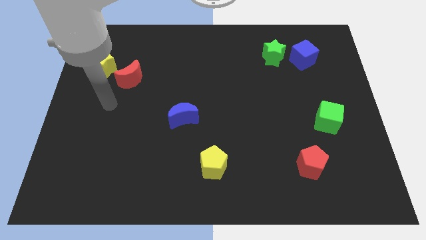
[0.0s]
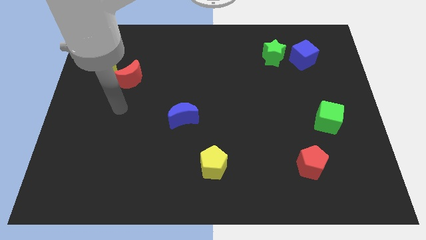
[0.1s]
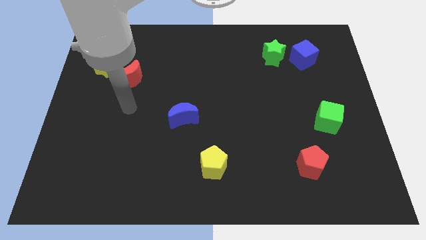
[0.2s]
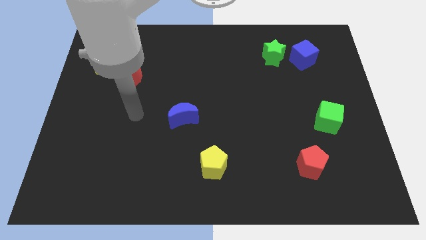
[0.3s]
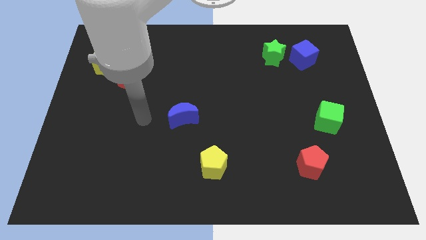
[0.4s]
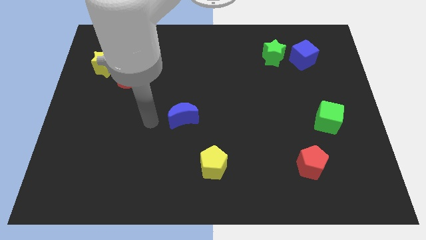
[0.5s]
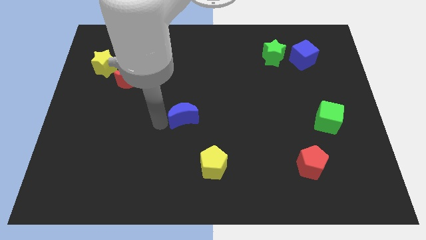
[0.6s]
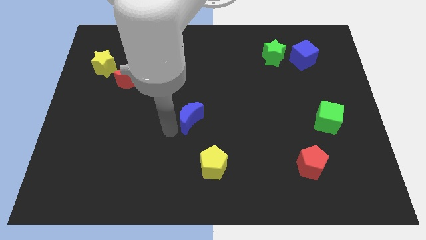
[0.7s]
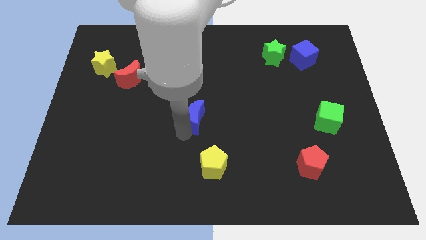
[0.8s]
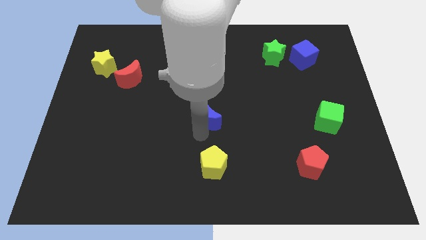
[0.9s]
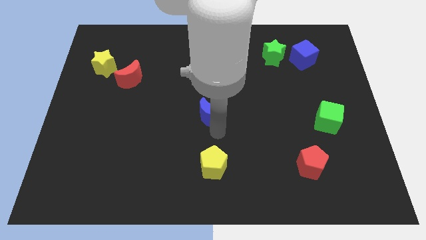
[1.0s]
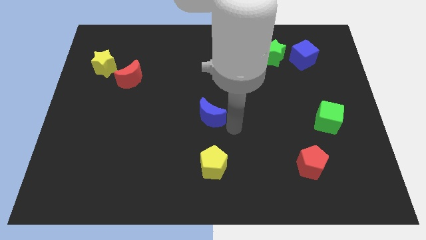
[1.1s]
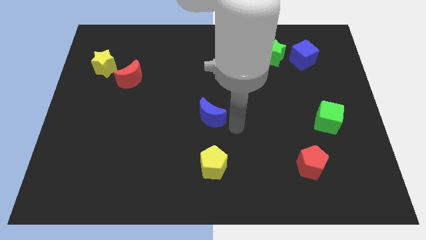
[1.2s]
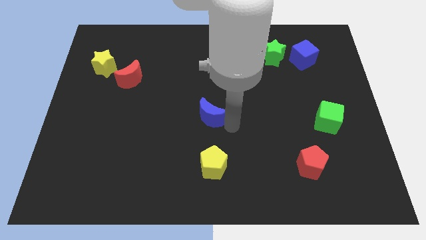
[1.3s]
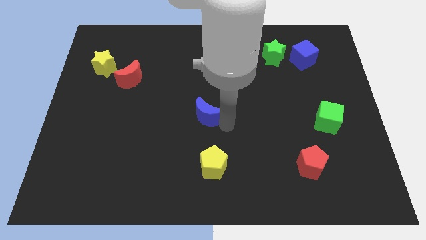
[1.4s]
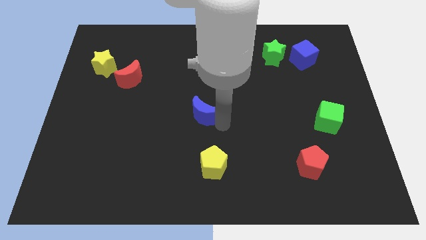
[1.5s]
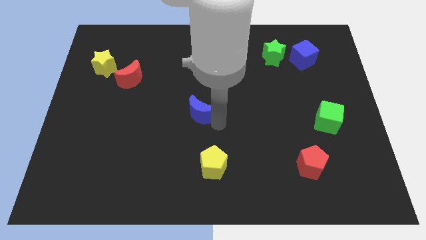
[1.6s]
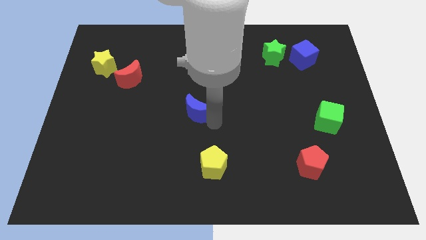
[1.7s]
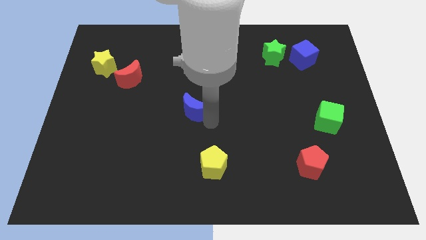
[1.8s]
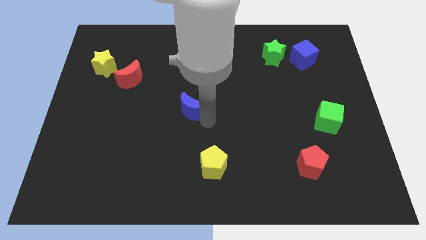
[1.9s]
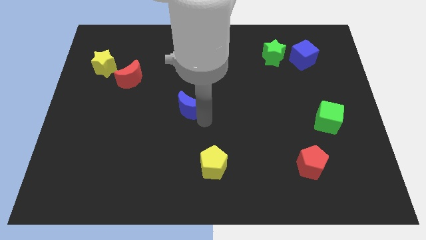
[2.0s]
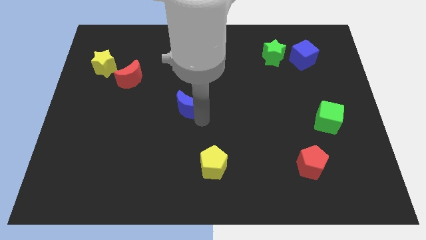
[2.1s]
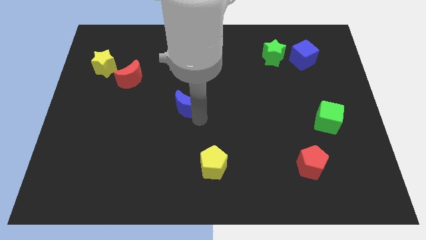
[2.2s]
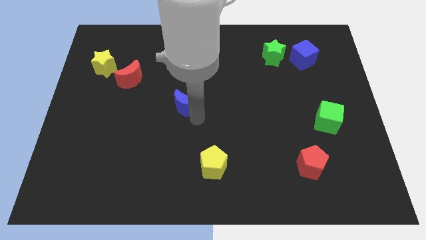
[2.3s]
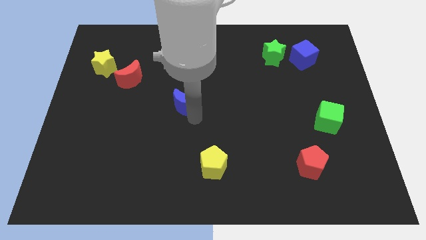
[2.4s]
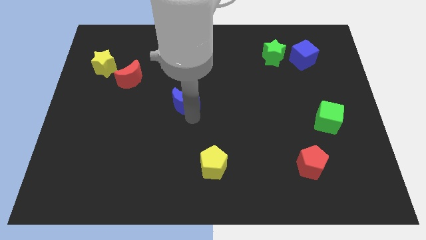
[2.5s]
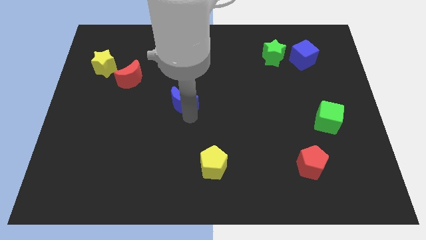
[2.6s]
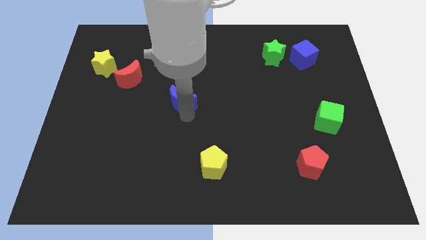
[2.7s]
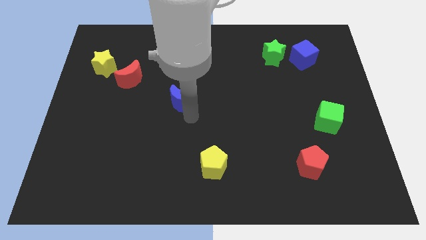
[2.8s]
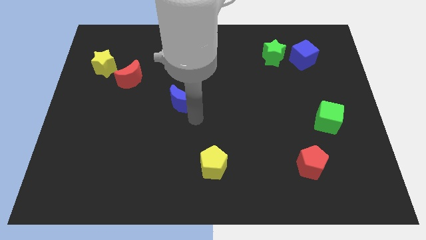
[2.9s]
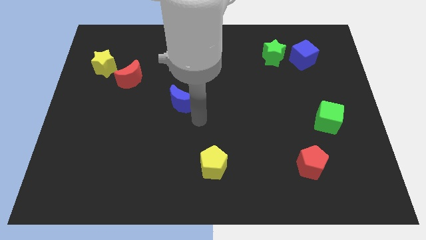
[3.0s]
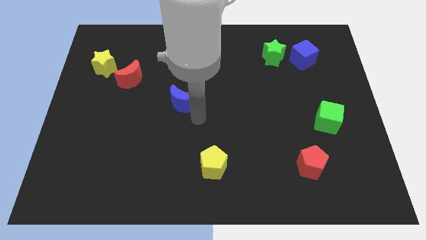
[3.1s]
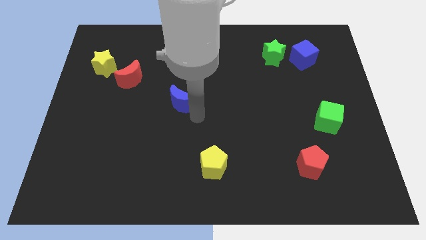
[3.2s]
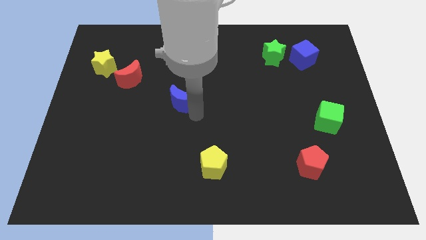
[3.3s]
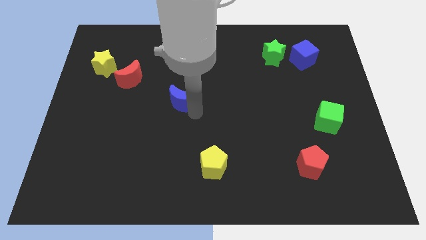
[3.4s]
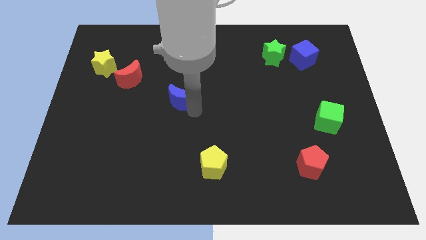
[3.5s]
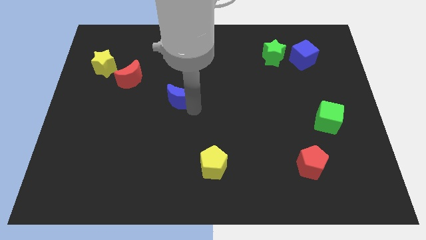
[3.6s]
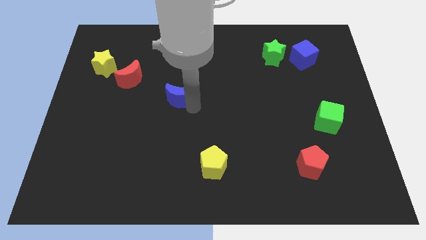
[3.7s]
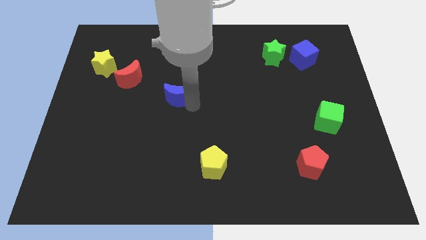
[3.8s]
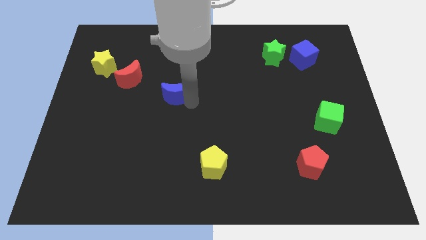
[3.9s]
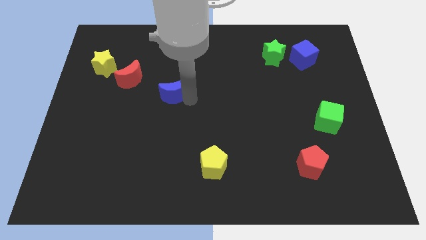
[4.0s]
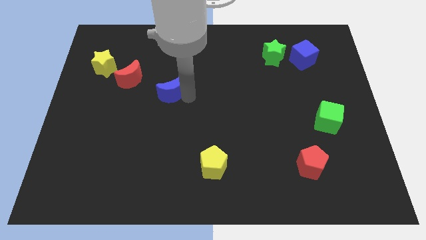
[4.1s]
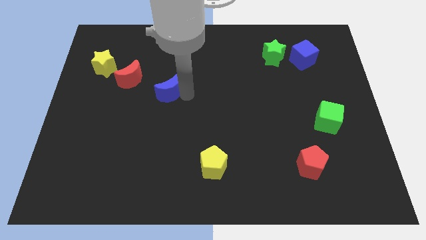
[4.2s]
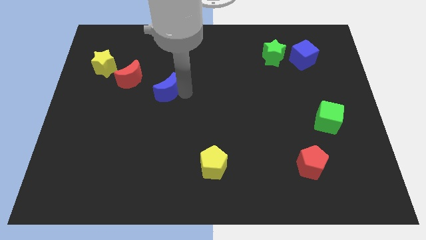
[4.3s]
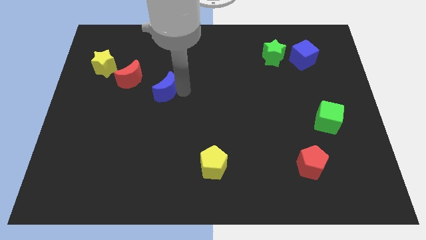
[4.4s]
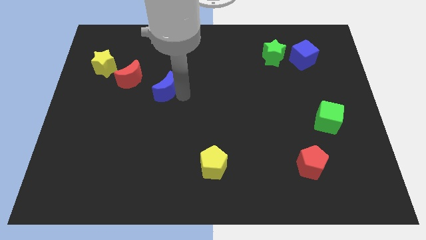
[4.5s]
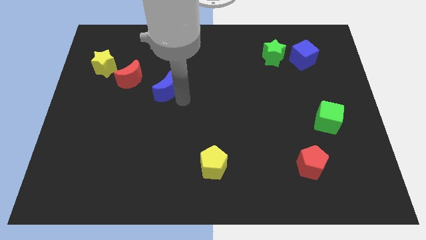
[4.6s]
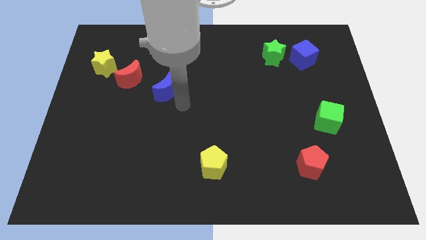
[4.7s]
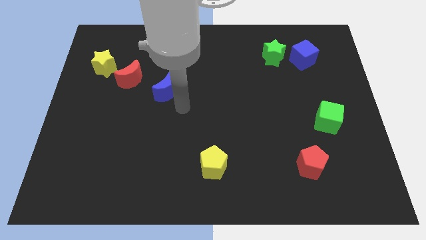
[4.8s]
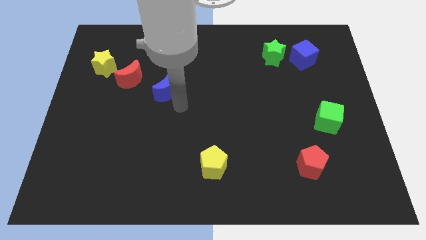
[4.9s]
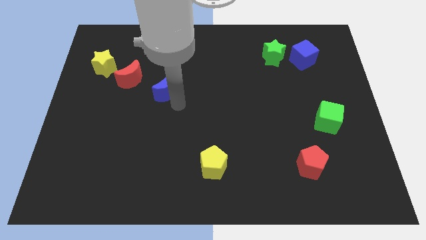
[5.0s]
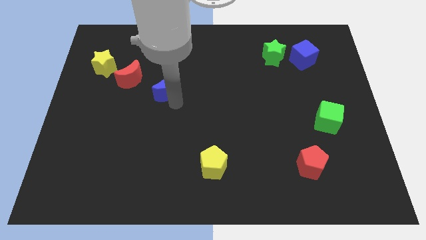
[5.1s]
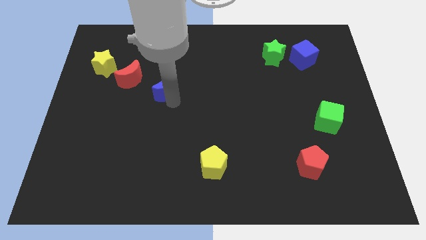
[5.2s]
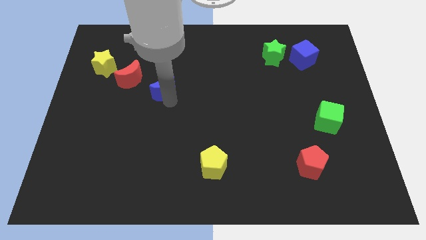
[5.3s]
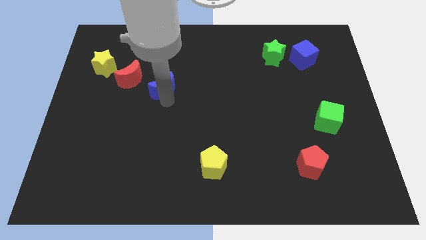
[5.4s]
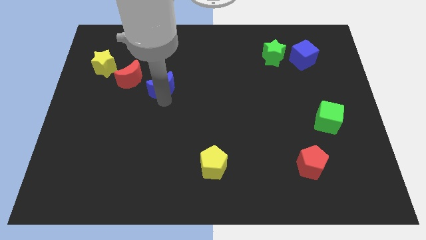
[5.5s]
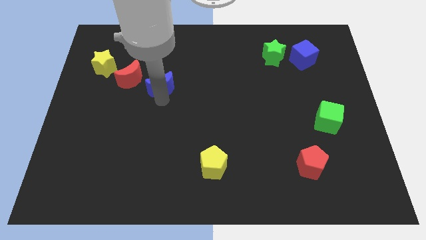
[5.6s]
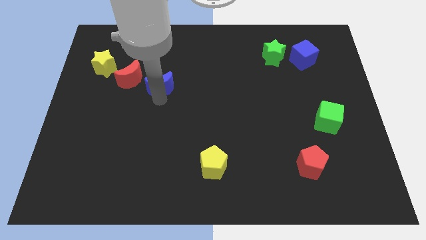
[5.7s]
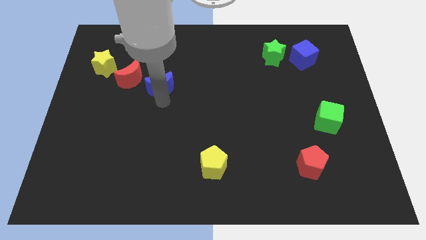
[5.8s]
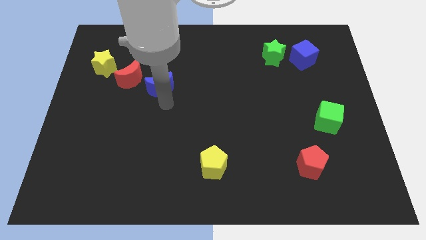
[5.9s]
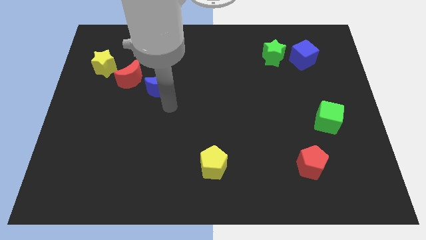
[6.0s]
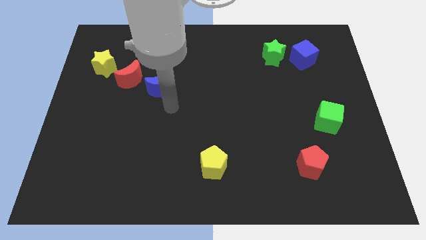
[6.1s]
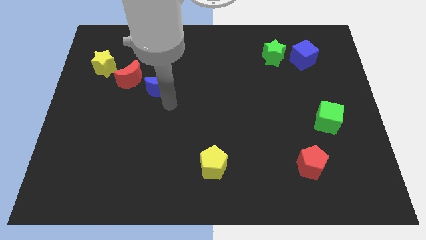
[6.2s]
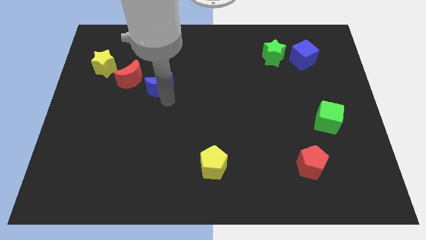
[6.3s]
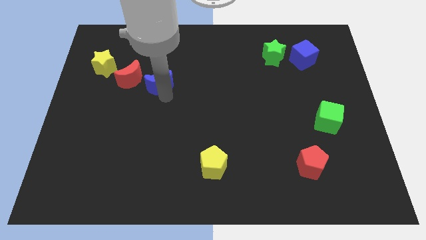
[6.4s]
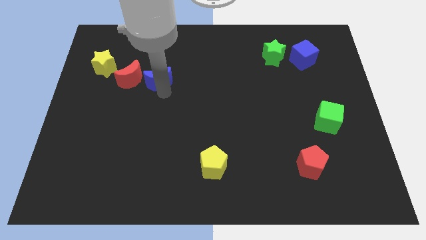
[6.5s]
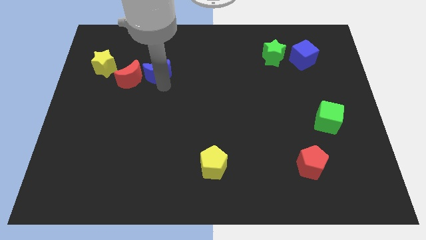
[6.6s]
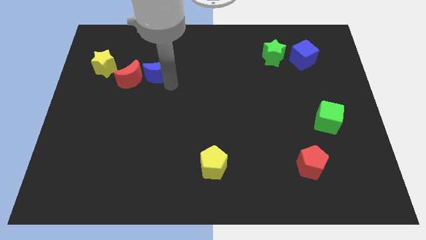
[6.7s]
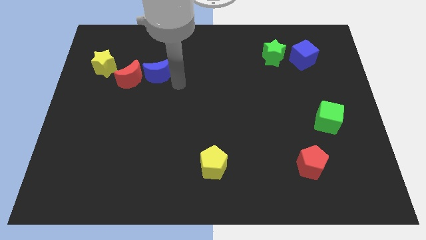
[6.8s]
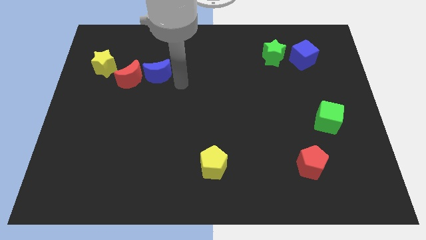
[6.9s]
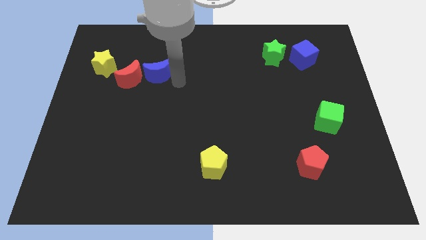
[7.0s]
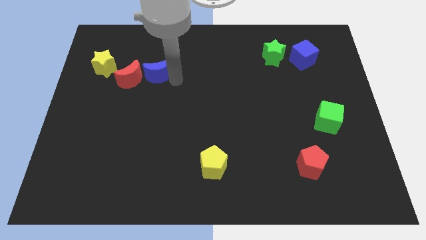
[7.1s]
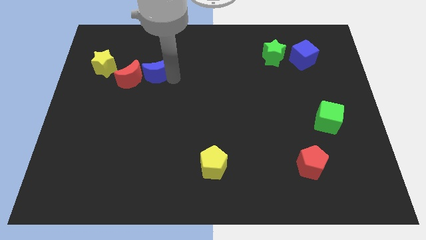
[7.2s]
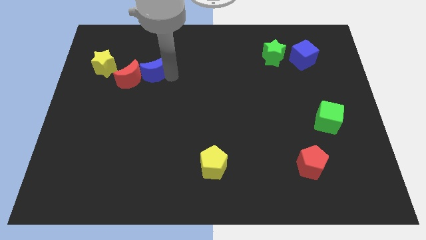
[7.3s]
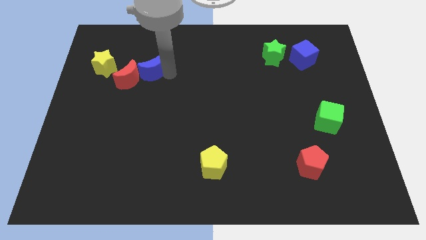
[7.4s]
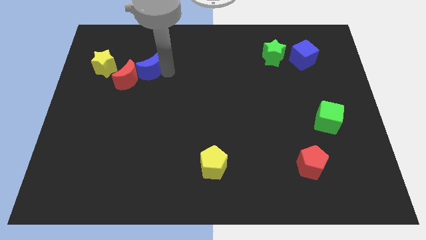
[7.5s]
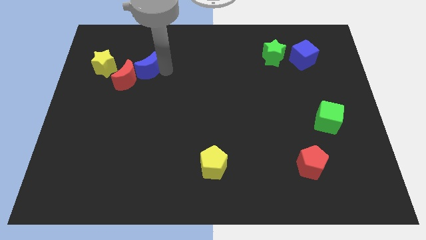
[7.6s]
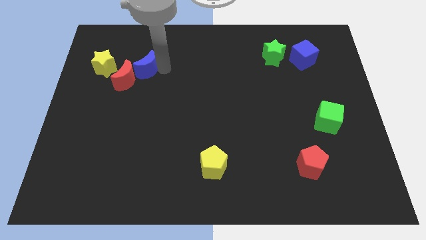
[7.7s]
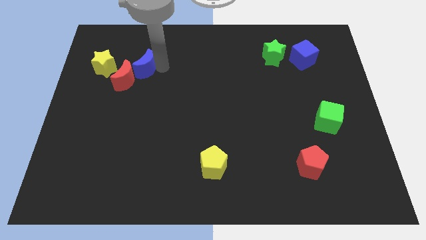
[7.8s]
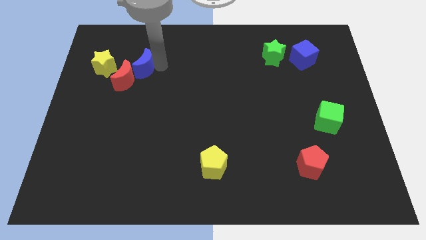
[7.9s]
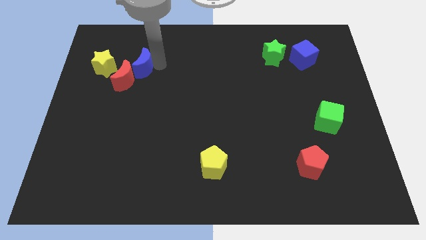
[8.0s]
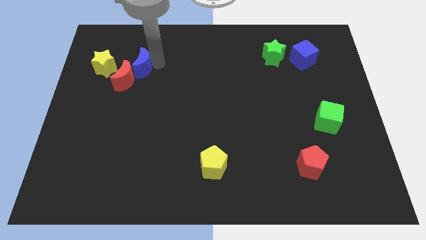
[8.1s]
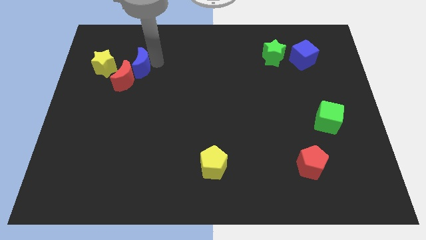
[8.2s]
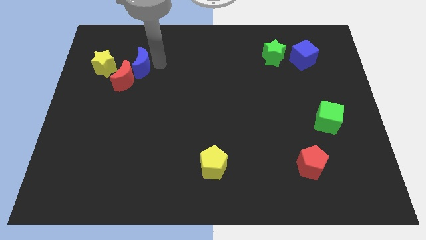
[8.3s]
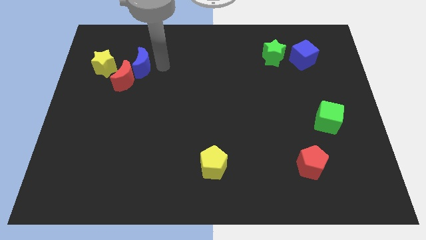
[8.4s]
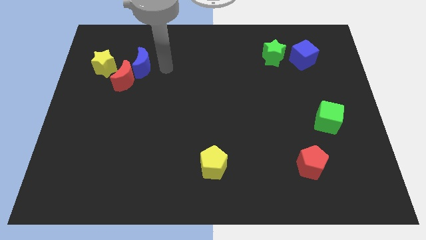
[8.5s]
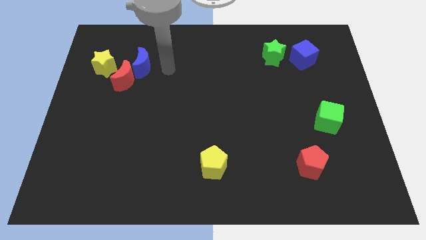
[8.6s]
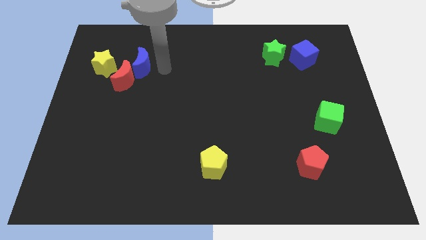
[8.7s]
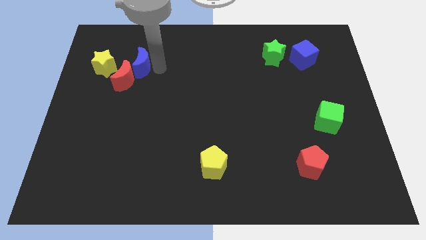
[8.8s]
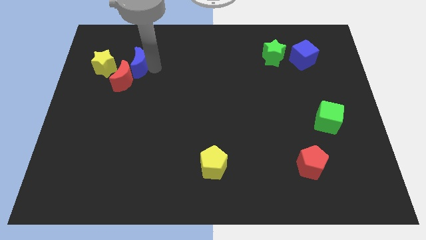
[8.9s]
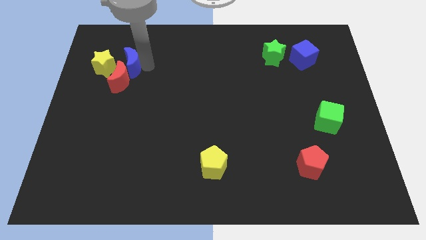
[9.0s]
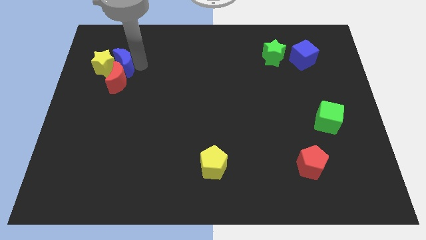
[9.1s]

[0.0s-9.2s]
slide the blue moon next to the yellow star
